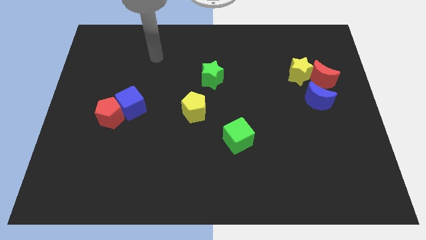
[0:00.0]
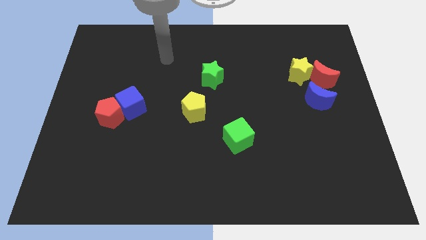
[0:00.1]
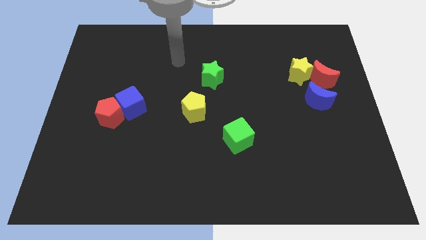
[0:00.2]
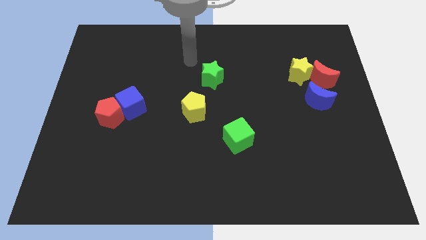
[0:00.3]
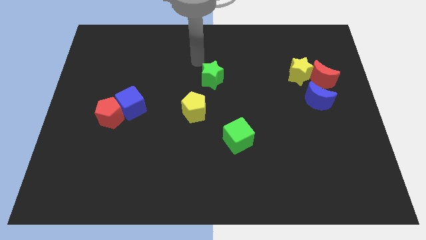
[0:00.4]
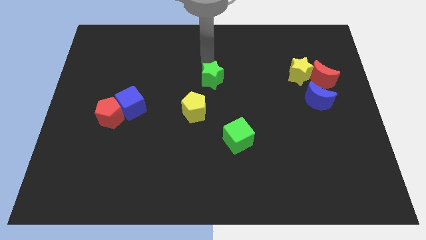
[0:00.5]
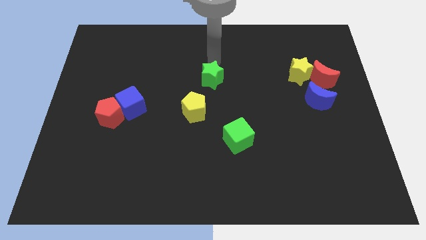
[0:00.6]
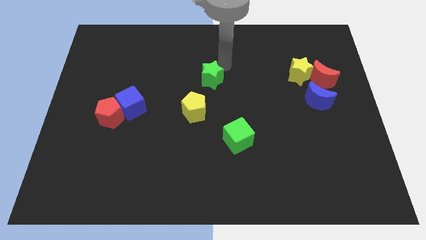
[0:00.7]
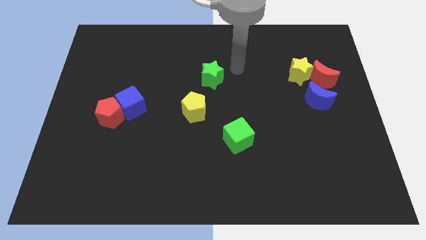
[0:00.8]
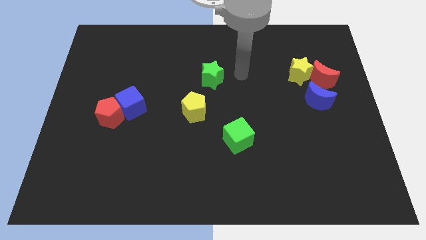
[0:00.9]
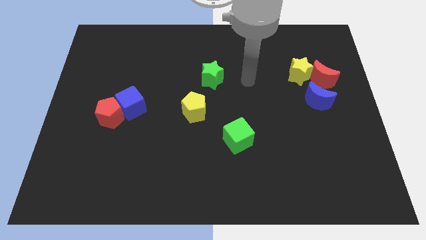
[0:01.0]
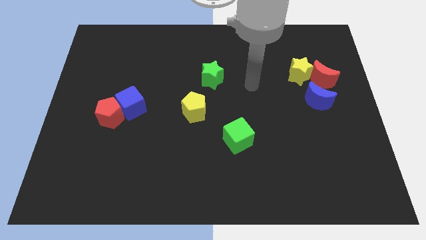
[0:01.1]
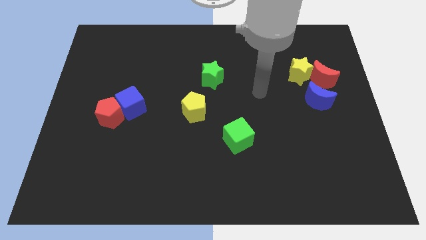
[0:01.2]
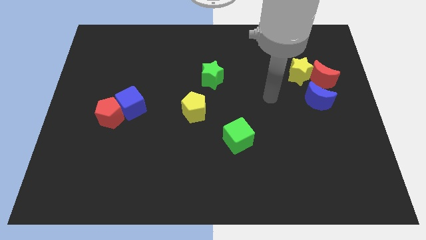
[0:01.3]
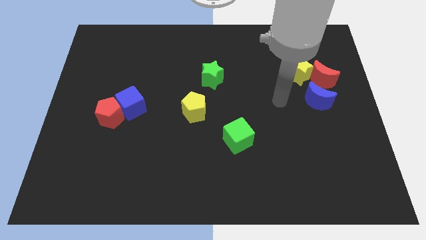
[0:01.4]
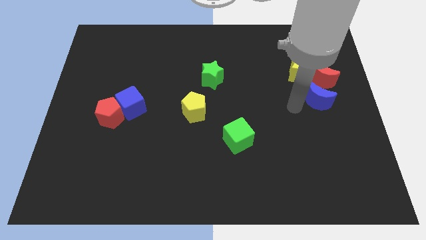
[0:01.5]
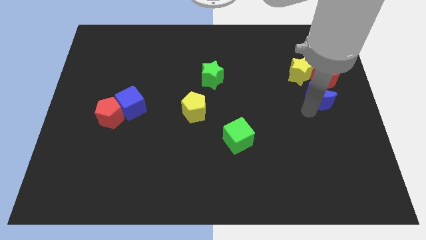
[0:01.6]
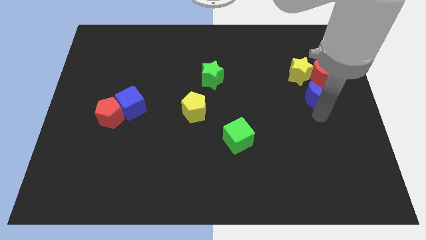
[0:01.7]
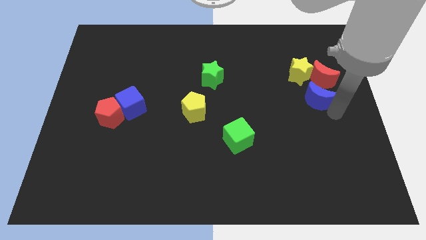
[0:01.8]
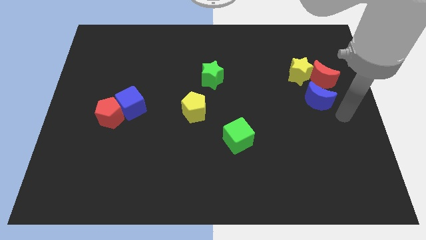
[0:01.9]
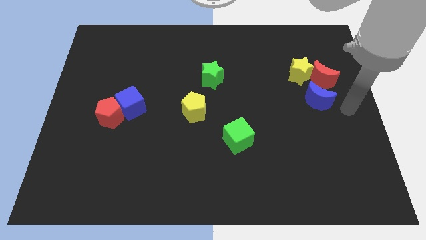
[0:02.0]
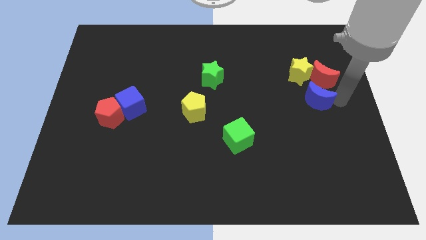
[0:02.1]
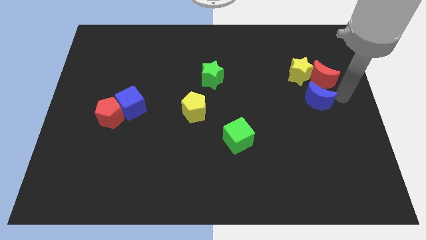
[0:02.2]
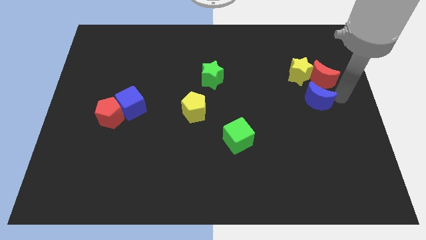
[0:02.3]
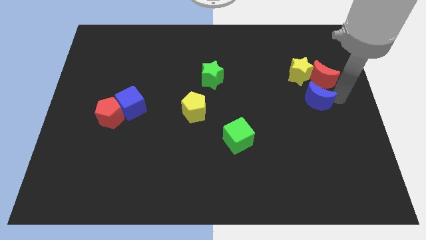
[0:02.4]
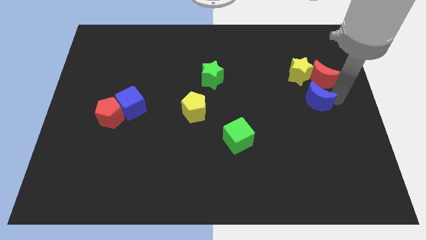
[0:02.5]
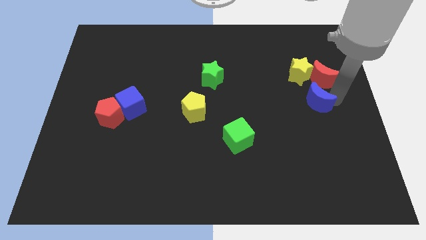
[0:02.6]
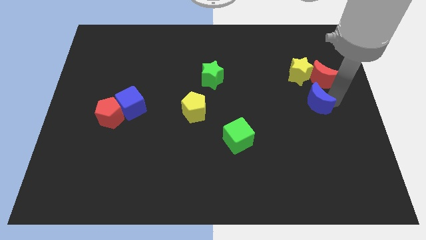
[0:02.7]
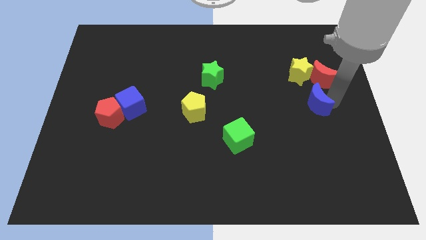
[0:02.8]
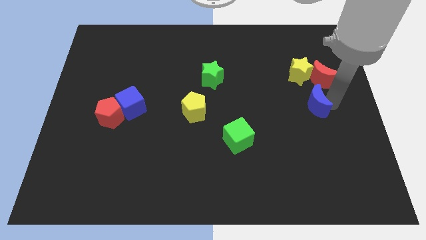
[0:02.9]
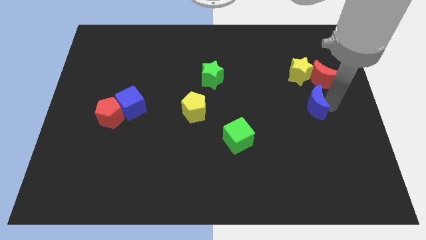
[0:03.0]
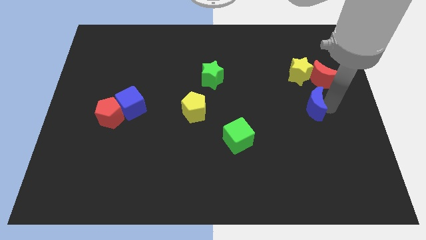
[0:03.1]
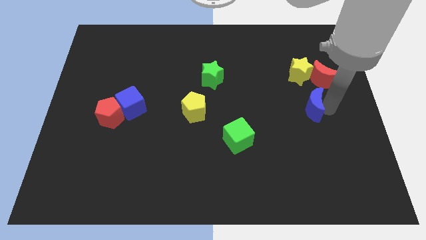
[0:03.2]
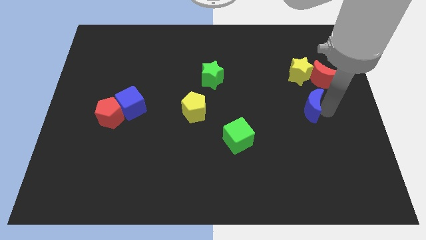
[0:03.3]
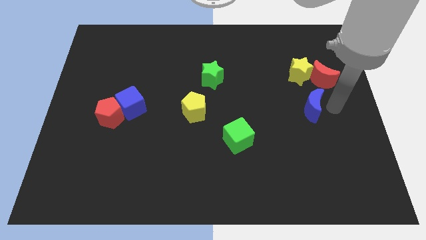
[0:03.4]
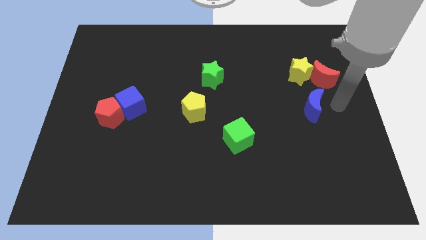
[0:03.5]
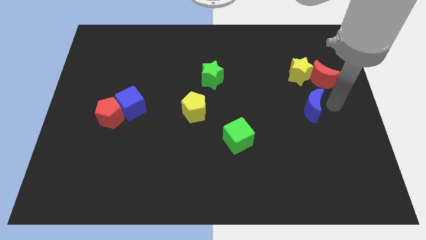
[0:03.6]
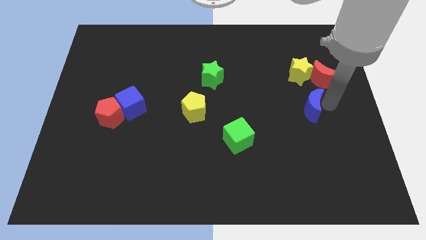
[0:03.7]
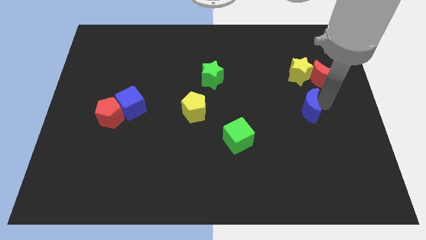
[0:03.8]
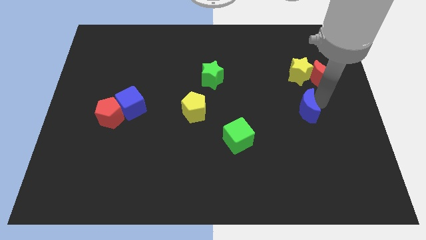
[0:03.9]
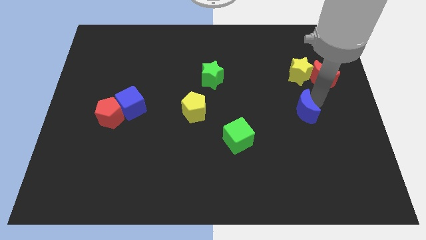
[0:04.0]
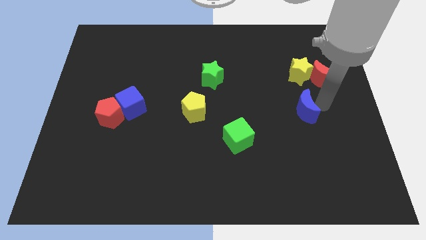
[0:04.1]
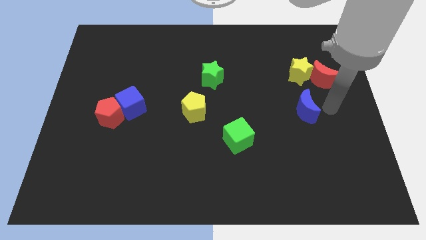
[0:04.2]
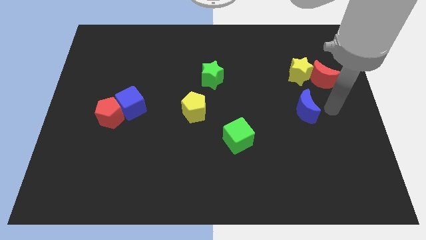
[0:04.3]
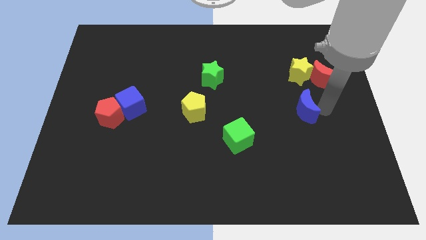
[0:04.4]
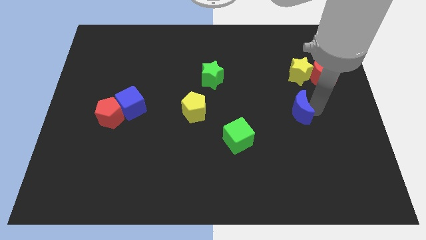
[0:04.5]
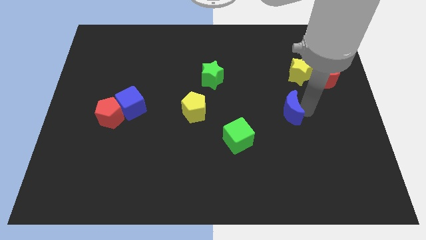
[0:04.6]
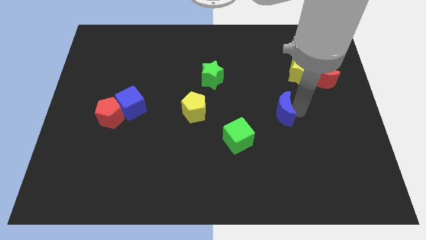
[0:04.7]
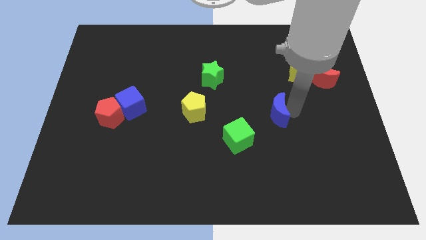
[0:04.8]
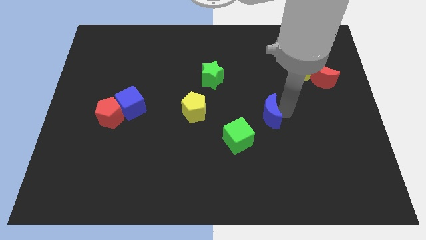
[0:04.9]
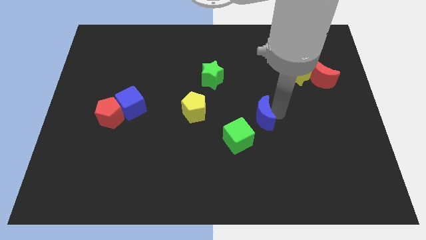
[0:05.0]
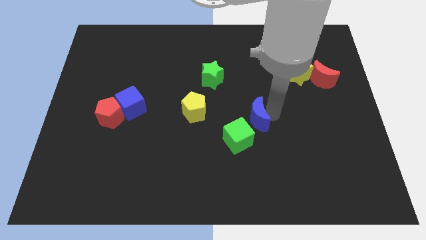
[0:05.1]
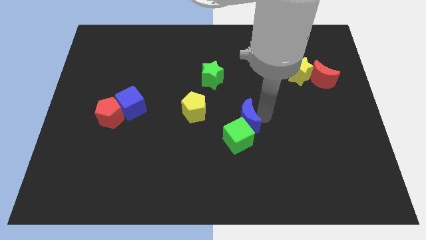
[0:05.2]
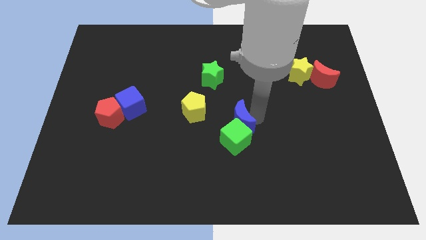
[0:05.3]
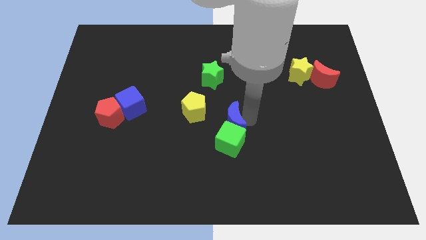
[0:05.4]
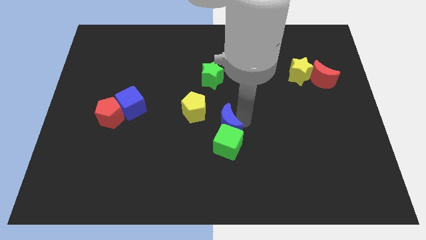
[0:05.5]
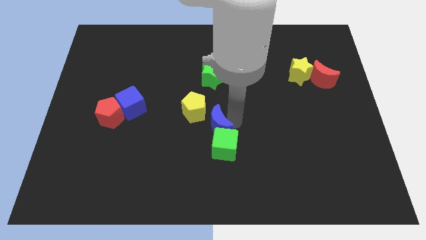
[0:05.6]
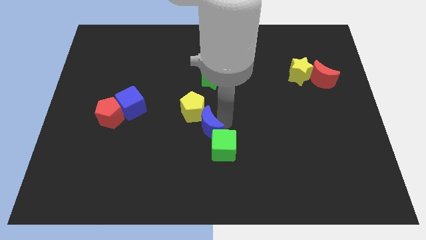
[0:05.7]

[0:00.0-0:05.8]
put the blue moon to the bottom side of the yellow pentagon

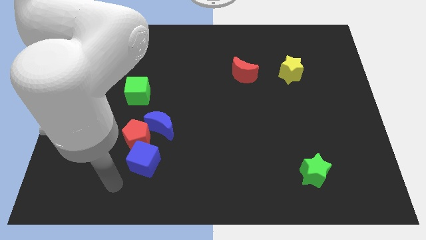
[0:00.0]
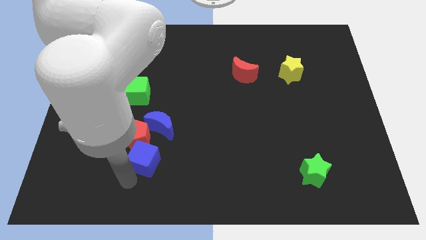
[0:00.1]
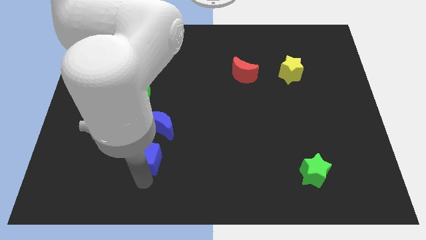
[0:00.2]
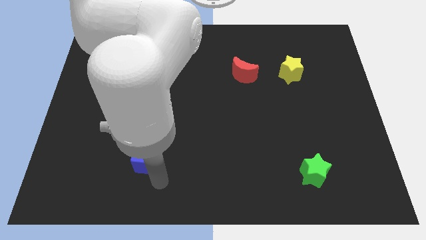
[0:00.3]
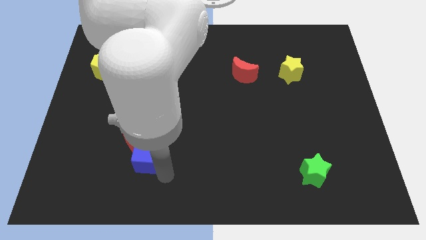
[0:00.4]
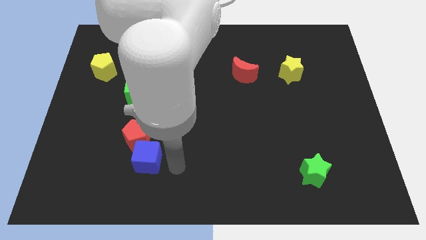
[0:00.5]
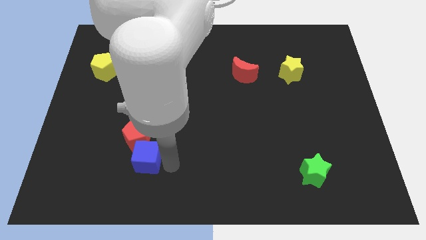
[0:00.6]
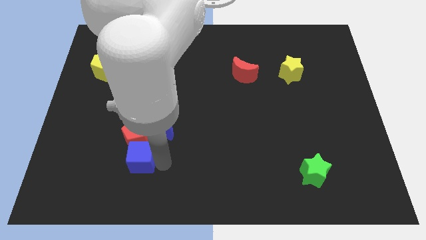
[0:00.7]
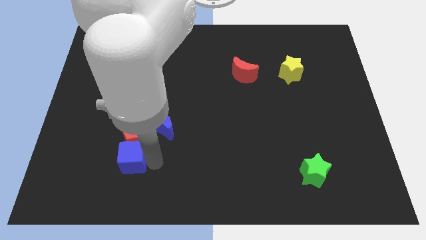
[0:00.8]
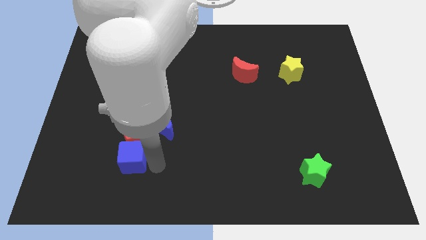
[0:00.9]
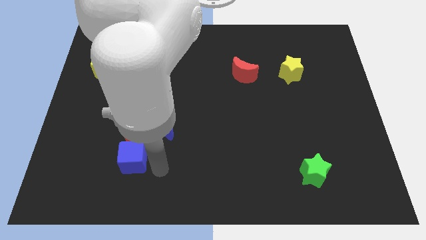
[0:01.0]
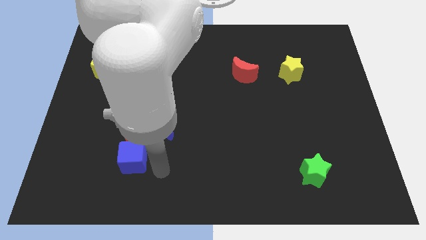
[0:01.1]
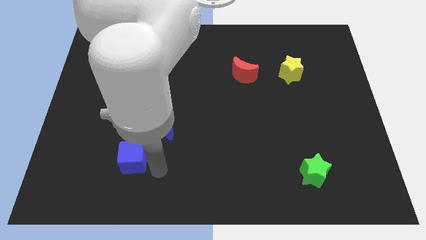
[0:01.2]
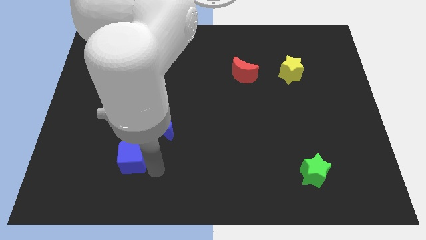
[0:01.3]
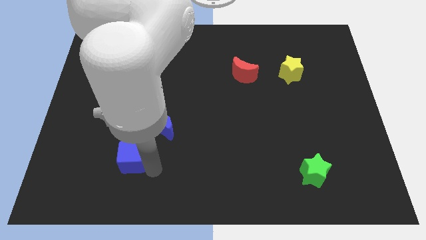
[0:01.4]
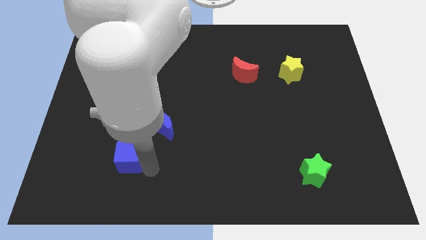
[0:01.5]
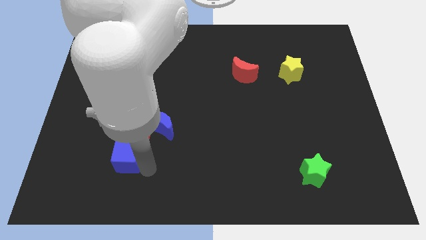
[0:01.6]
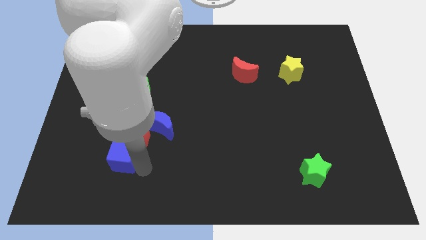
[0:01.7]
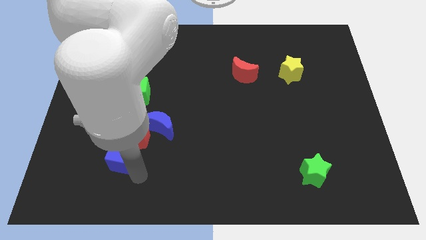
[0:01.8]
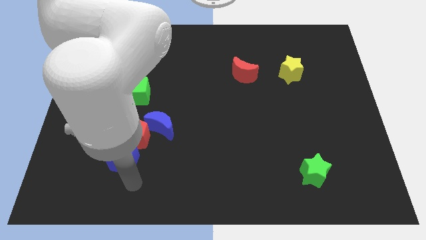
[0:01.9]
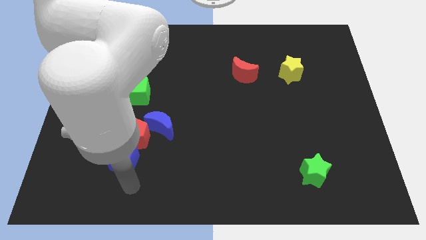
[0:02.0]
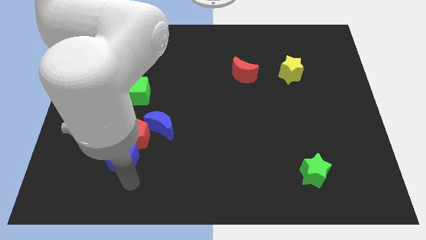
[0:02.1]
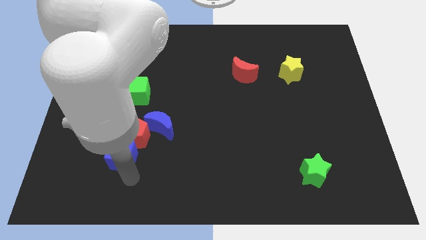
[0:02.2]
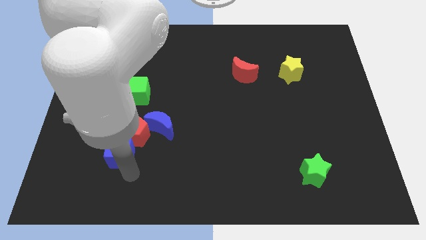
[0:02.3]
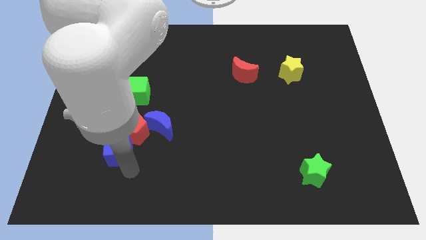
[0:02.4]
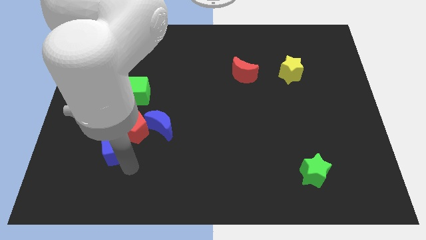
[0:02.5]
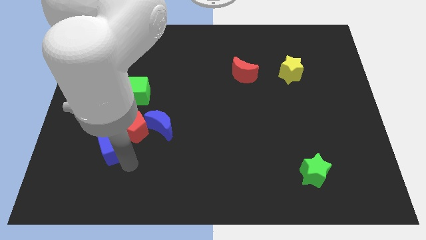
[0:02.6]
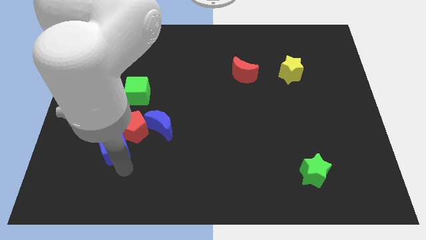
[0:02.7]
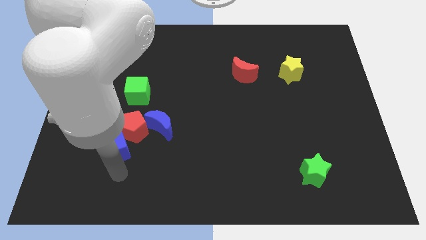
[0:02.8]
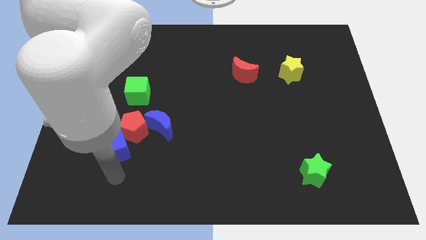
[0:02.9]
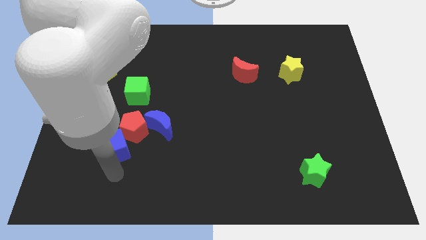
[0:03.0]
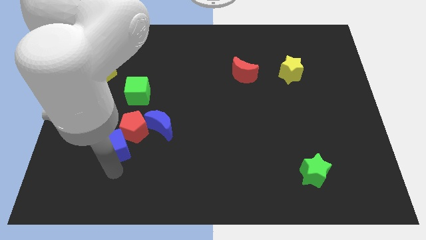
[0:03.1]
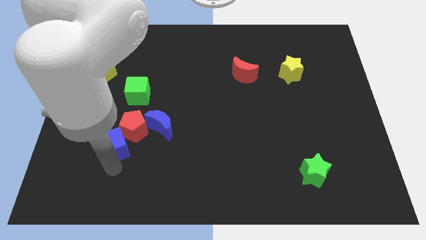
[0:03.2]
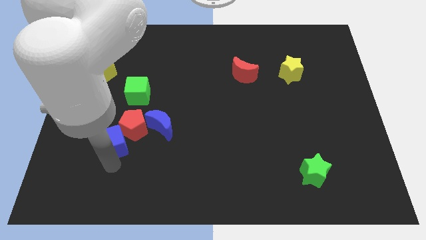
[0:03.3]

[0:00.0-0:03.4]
push the blue cube to the left of the blue moon
